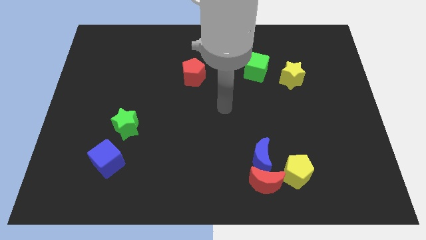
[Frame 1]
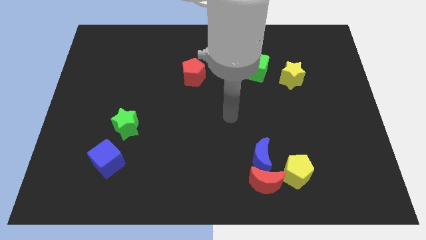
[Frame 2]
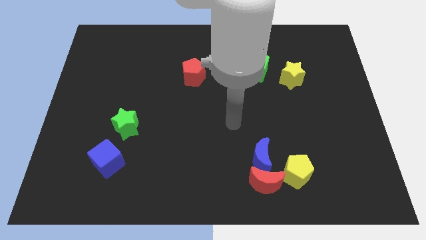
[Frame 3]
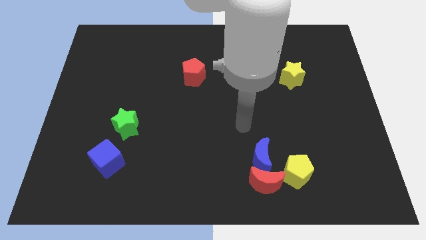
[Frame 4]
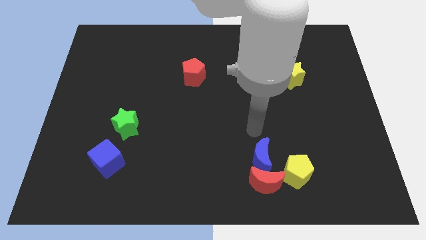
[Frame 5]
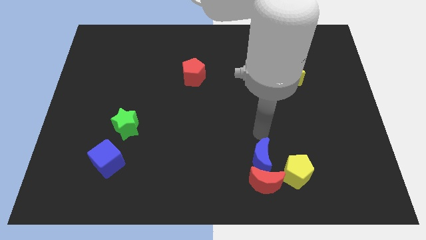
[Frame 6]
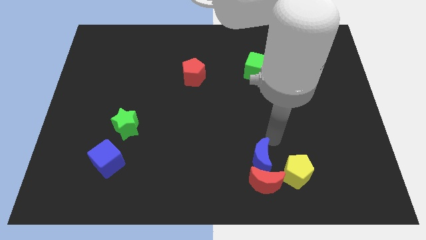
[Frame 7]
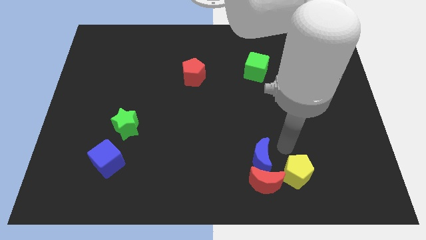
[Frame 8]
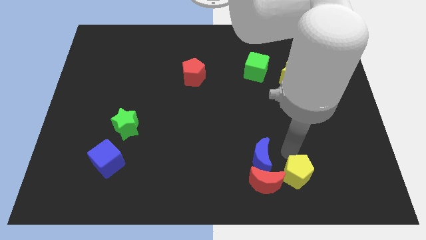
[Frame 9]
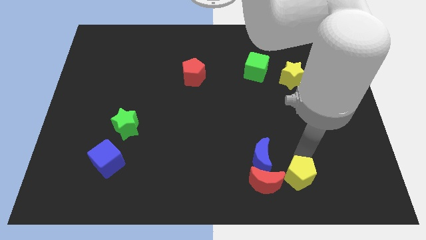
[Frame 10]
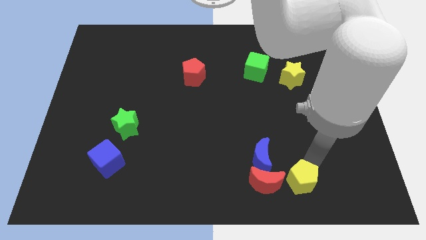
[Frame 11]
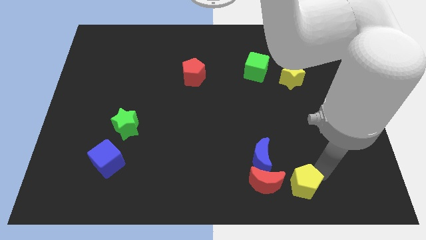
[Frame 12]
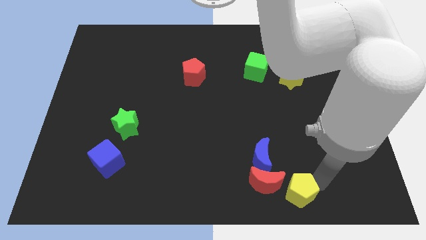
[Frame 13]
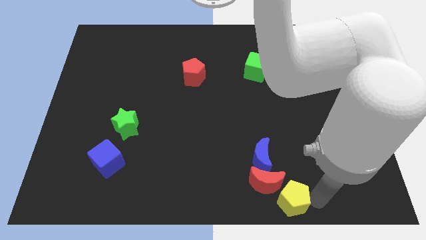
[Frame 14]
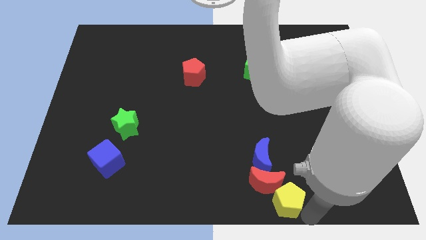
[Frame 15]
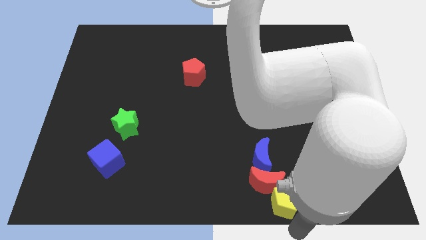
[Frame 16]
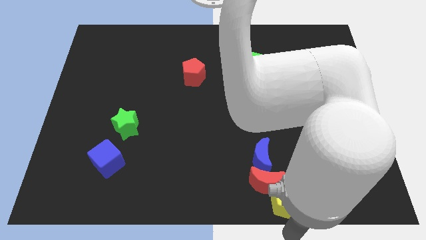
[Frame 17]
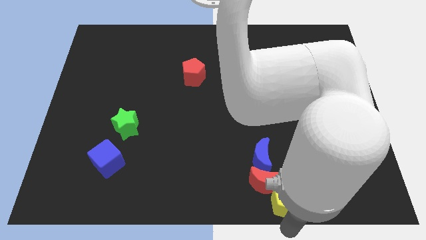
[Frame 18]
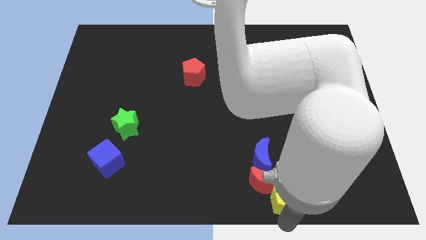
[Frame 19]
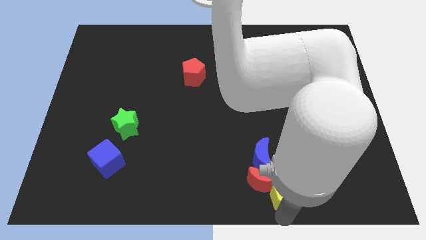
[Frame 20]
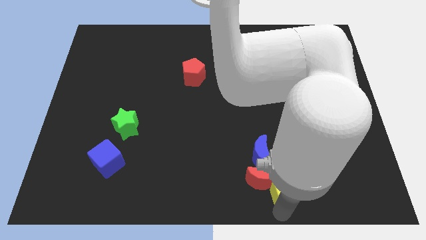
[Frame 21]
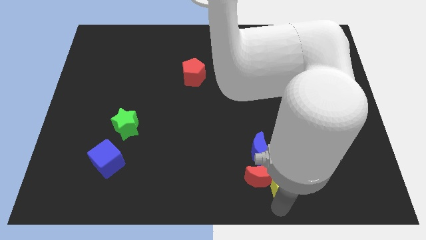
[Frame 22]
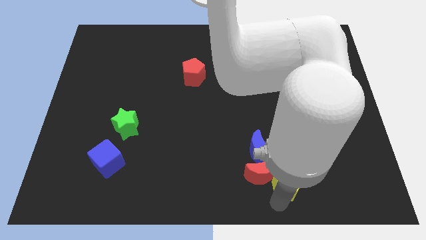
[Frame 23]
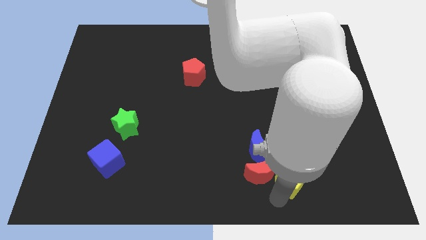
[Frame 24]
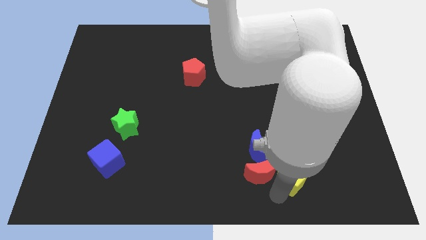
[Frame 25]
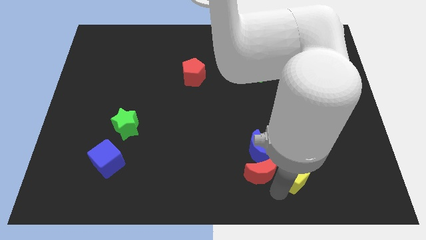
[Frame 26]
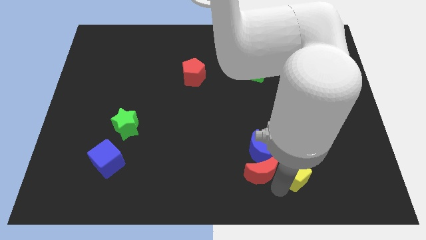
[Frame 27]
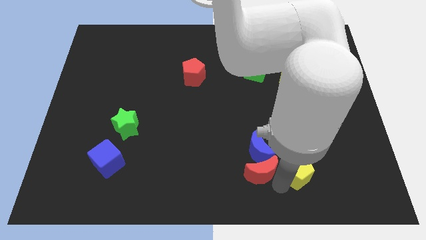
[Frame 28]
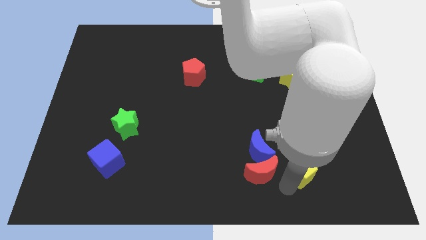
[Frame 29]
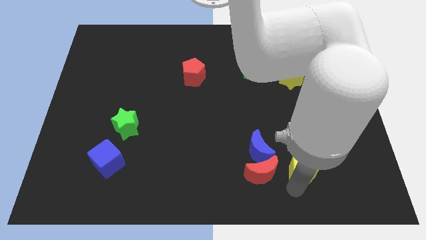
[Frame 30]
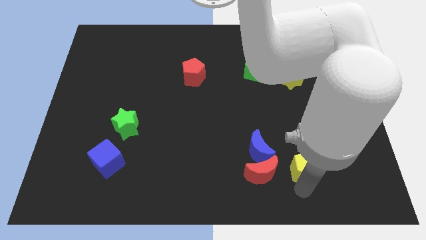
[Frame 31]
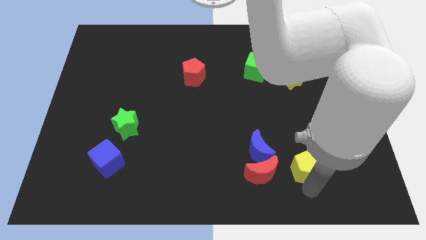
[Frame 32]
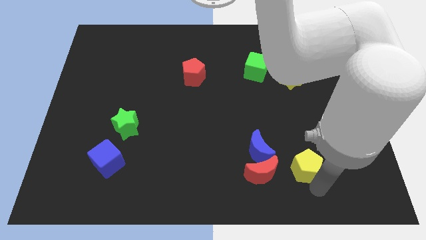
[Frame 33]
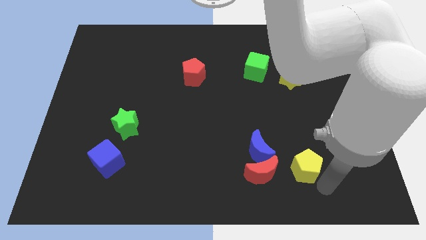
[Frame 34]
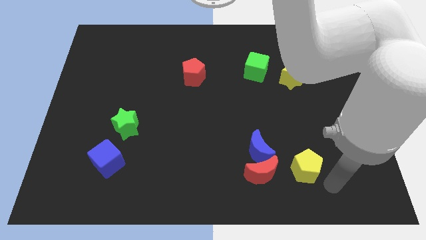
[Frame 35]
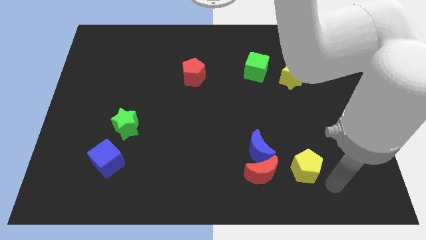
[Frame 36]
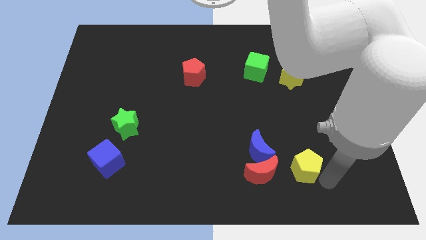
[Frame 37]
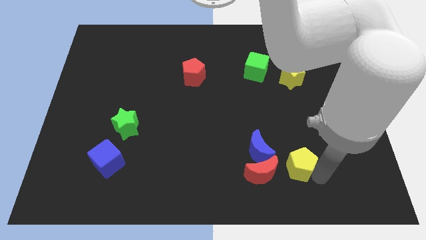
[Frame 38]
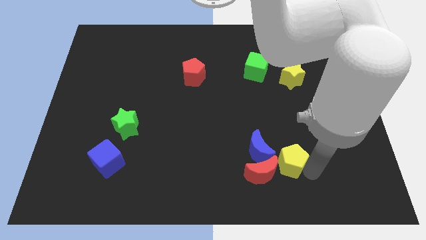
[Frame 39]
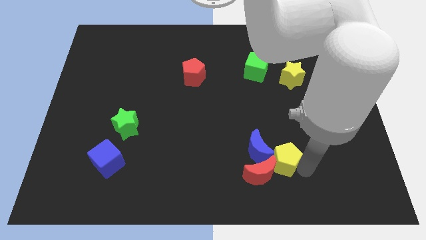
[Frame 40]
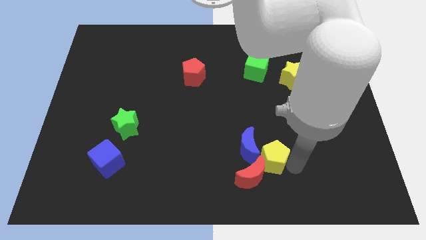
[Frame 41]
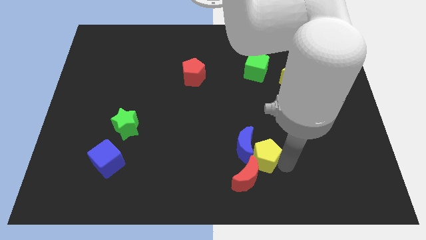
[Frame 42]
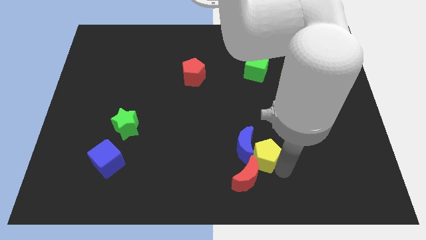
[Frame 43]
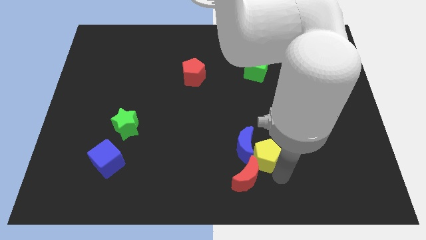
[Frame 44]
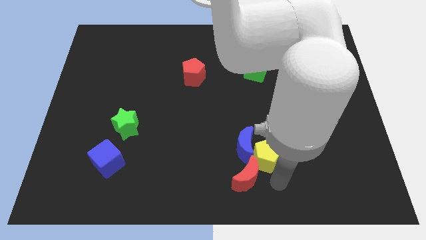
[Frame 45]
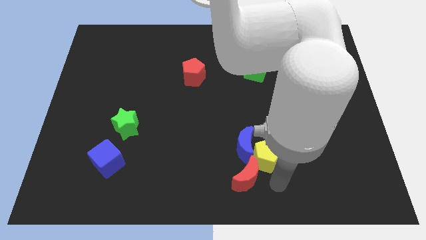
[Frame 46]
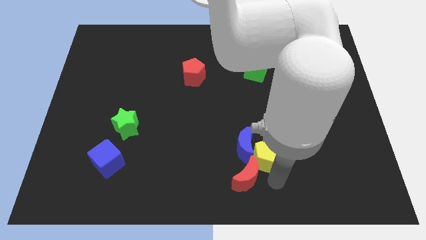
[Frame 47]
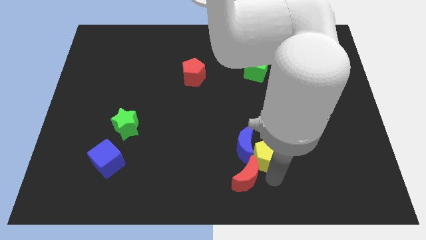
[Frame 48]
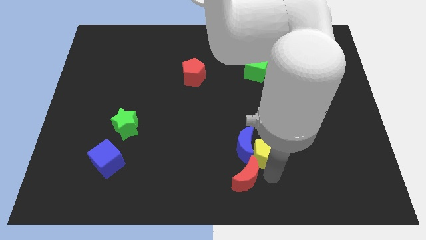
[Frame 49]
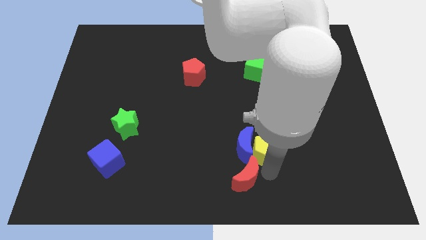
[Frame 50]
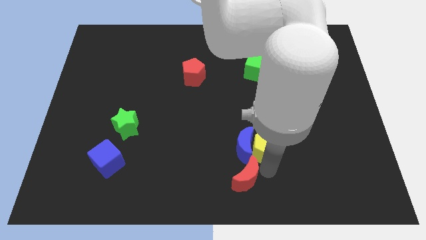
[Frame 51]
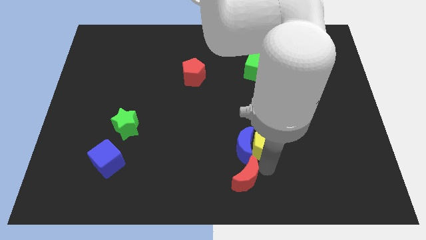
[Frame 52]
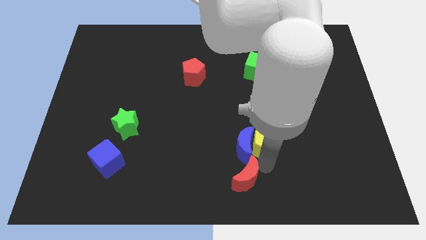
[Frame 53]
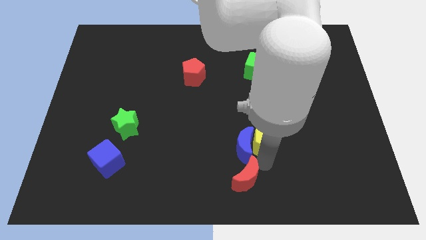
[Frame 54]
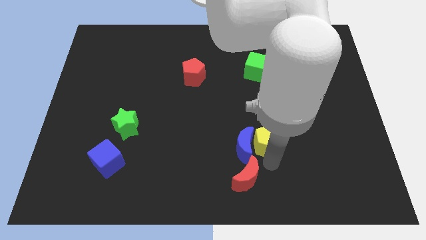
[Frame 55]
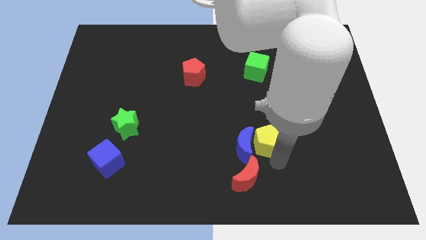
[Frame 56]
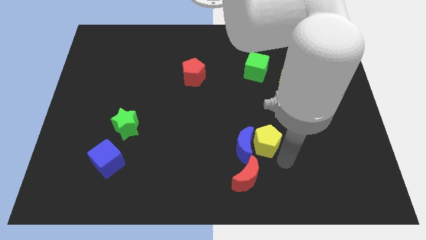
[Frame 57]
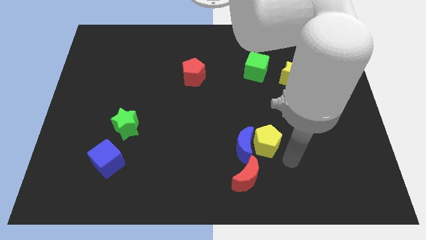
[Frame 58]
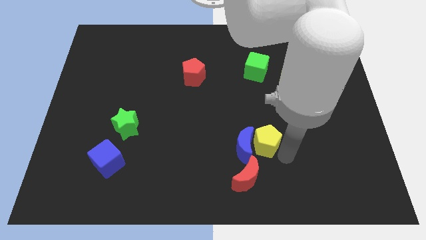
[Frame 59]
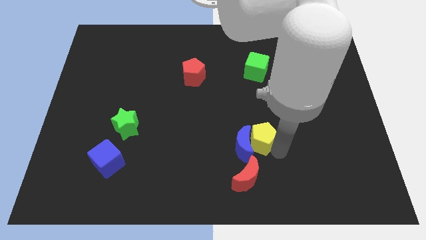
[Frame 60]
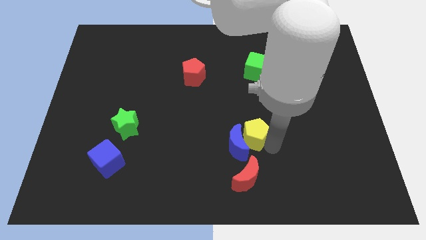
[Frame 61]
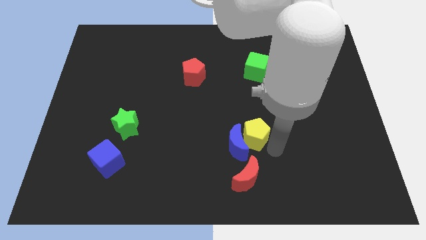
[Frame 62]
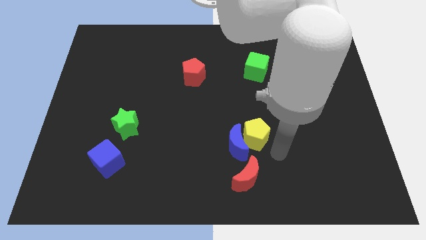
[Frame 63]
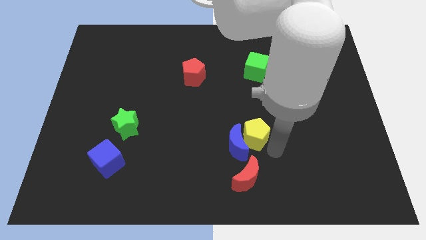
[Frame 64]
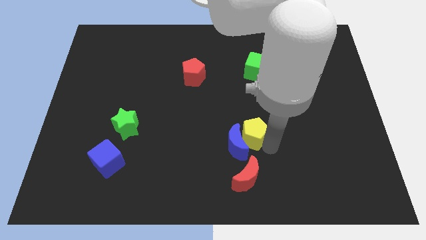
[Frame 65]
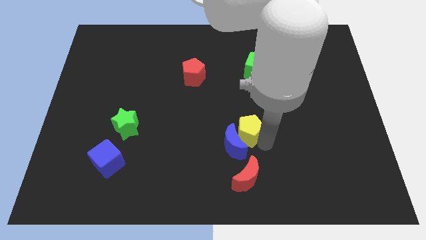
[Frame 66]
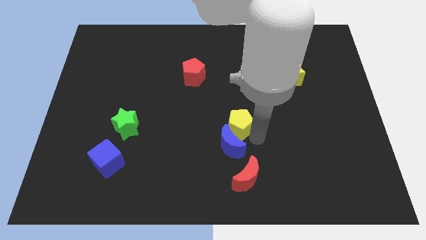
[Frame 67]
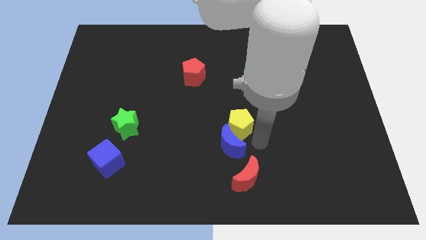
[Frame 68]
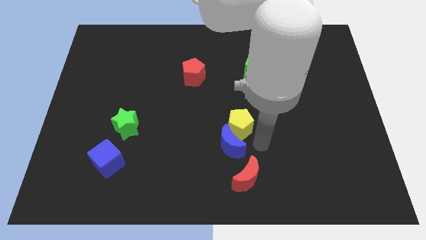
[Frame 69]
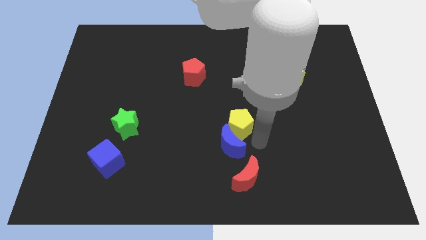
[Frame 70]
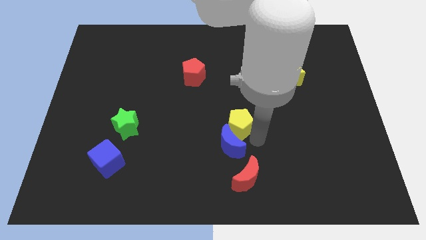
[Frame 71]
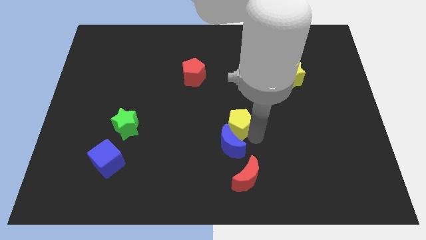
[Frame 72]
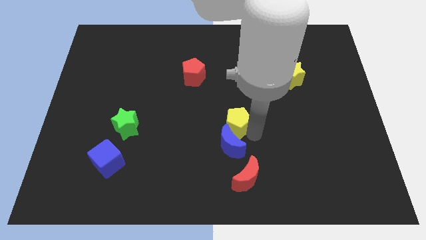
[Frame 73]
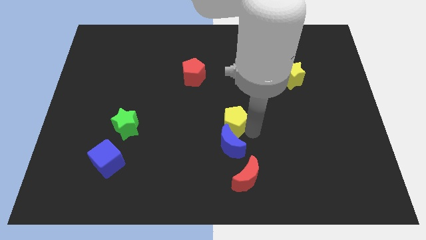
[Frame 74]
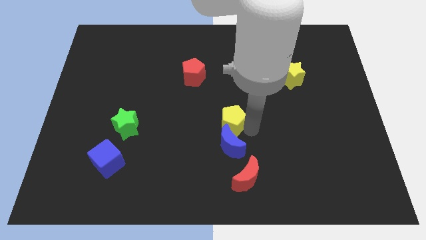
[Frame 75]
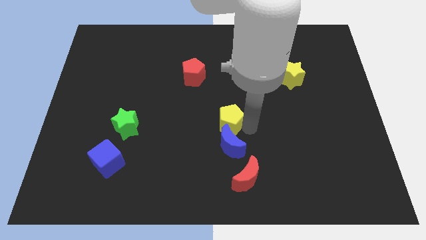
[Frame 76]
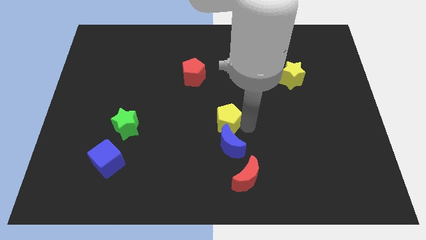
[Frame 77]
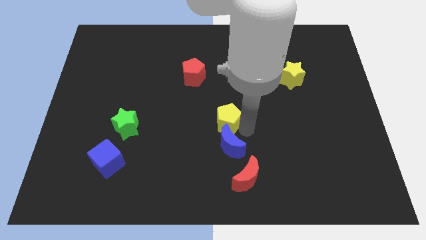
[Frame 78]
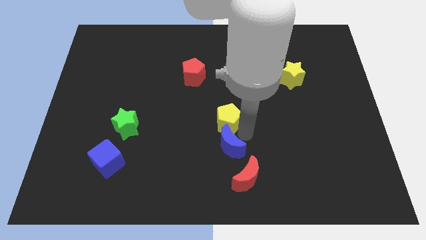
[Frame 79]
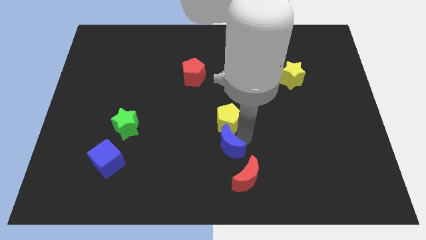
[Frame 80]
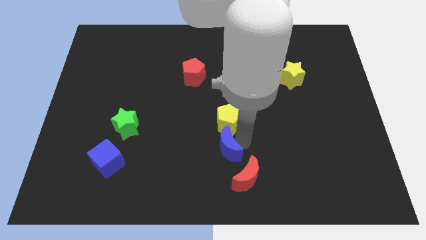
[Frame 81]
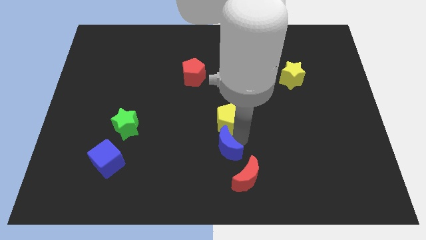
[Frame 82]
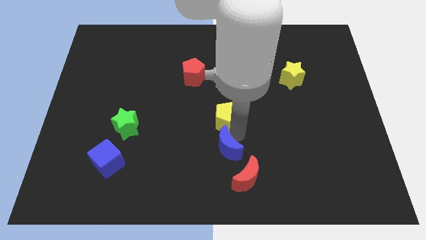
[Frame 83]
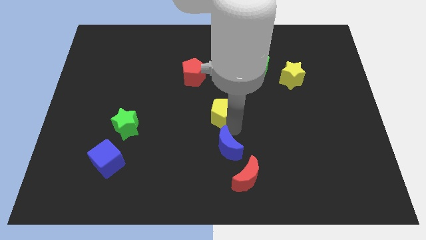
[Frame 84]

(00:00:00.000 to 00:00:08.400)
move the yellow pentagon up and to the left diagonally
